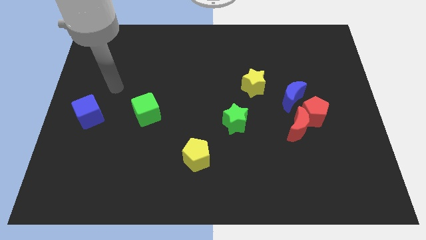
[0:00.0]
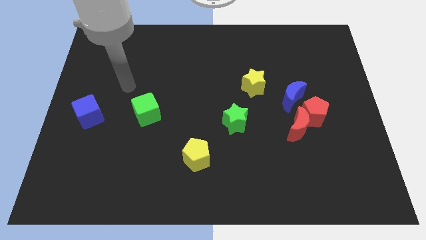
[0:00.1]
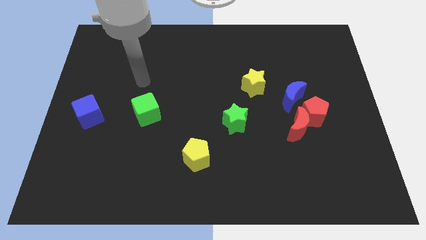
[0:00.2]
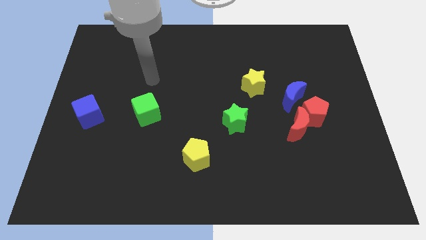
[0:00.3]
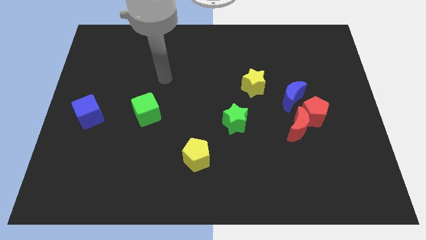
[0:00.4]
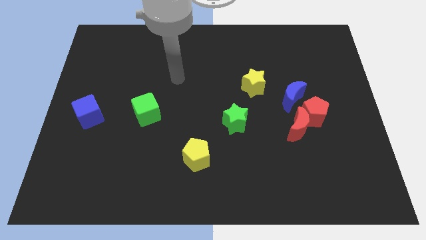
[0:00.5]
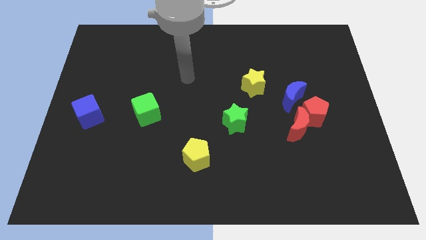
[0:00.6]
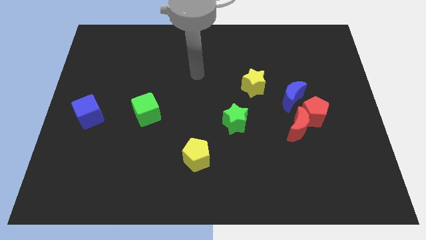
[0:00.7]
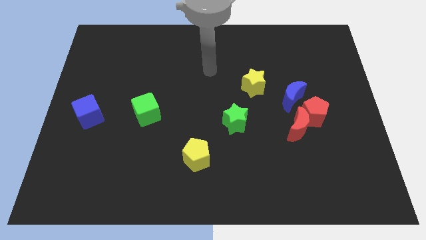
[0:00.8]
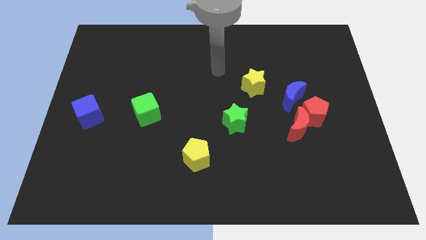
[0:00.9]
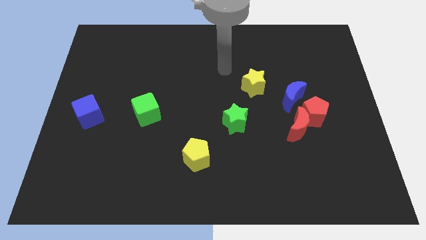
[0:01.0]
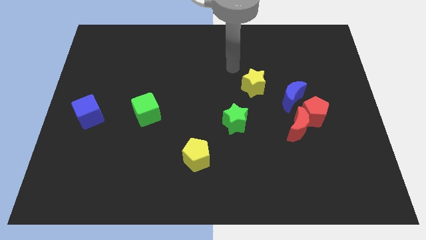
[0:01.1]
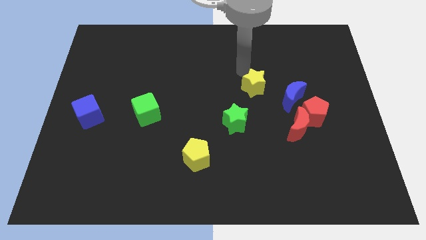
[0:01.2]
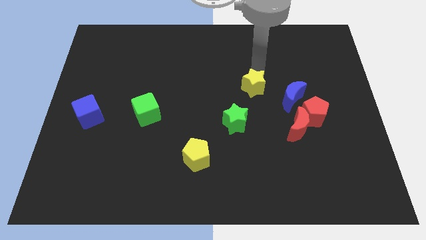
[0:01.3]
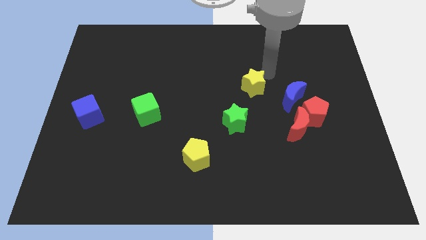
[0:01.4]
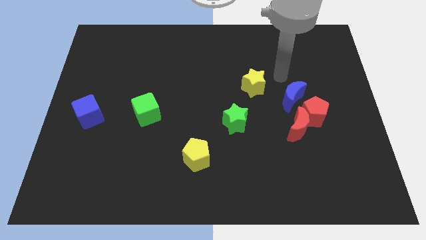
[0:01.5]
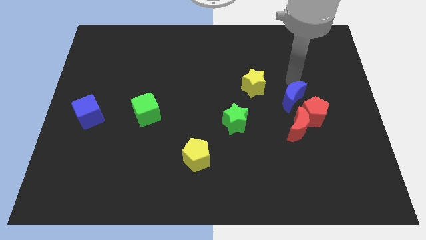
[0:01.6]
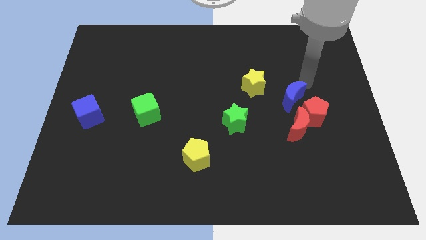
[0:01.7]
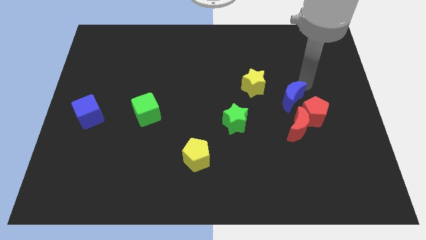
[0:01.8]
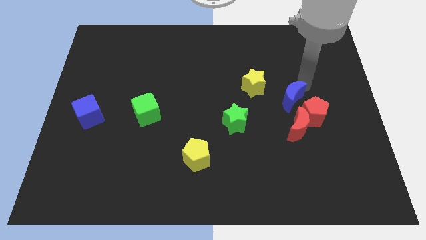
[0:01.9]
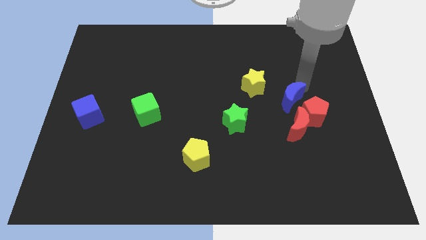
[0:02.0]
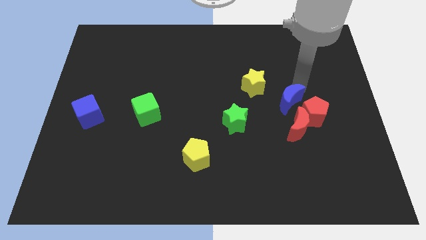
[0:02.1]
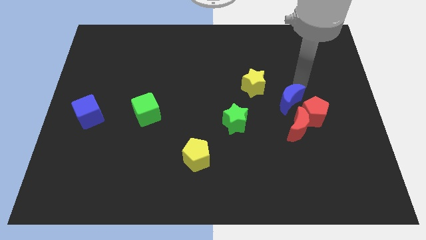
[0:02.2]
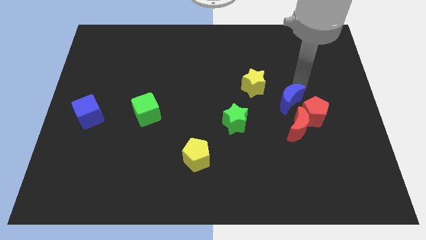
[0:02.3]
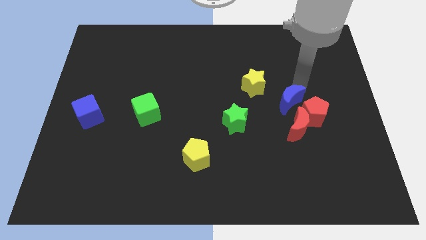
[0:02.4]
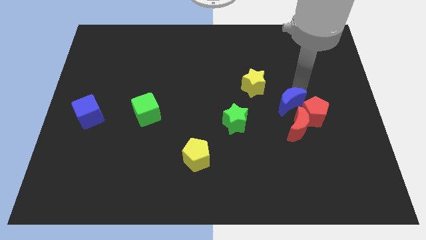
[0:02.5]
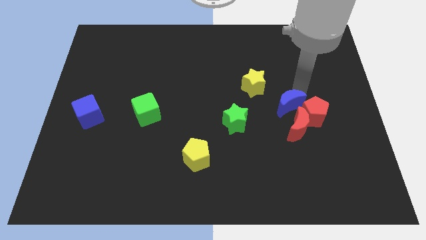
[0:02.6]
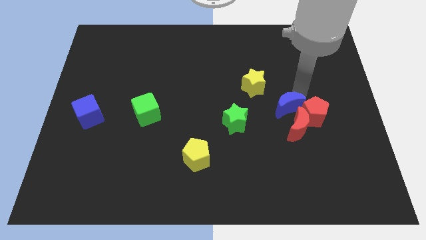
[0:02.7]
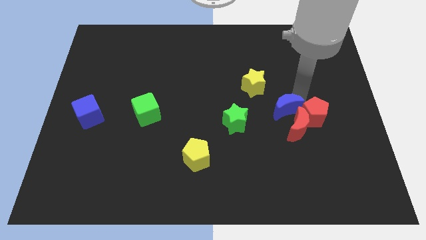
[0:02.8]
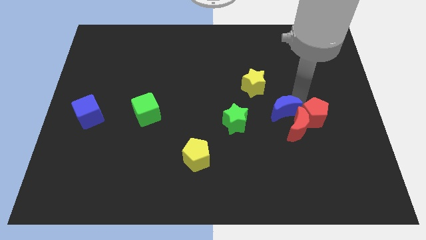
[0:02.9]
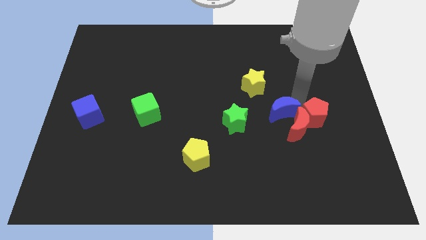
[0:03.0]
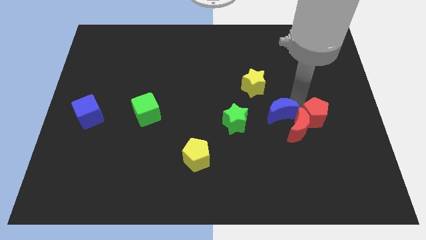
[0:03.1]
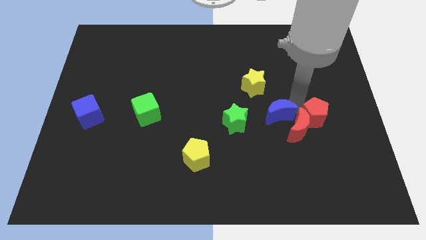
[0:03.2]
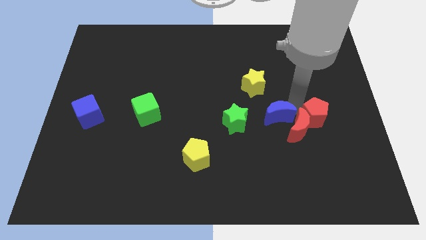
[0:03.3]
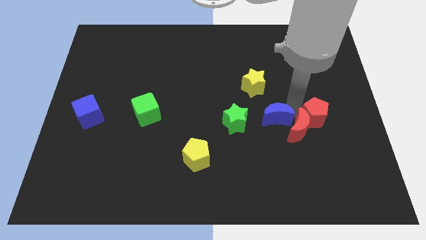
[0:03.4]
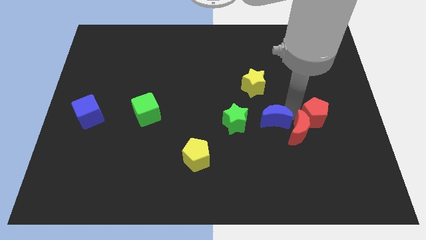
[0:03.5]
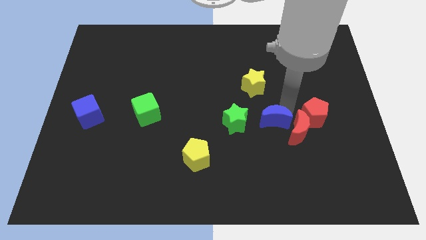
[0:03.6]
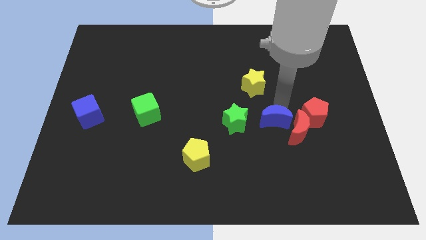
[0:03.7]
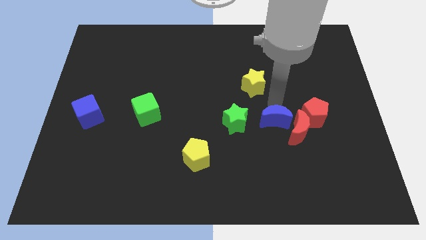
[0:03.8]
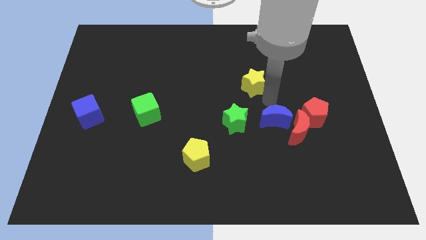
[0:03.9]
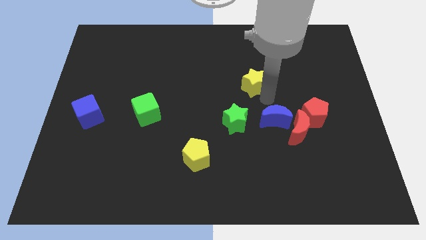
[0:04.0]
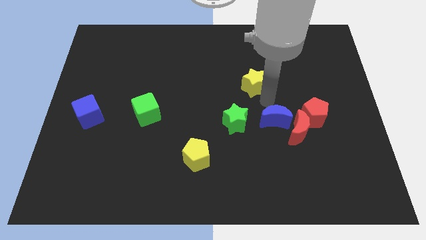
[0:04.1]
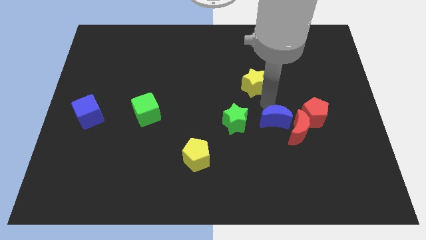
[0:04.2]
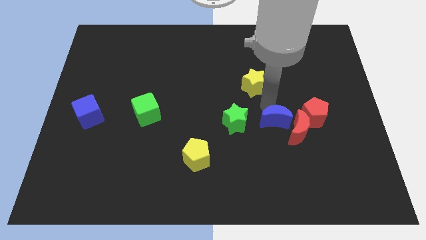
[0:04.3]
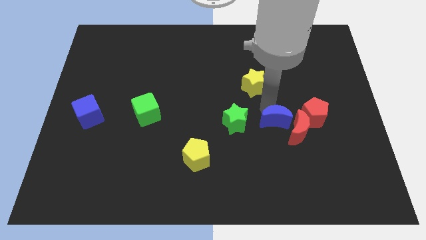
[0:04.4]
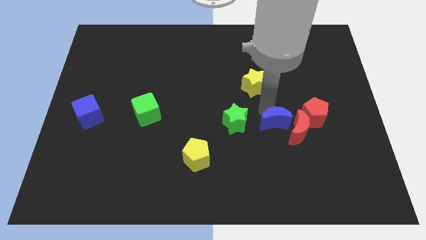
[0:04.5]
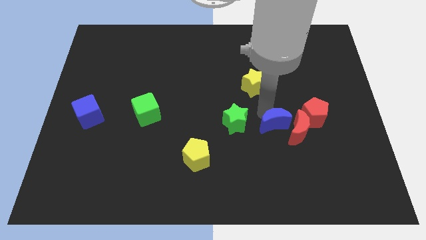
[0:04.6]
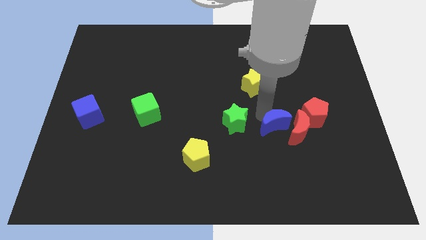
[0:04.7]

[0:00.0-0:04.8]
slightly slide the blue moon downwards

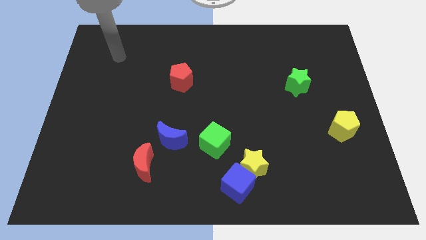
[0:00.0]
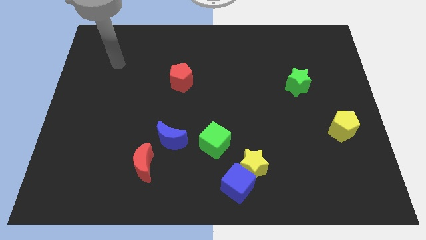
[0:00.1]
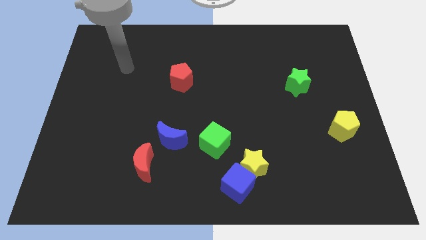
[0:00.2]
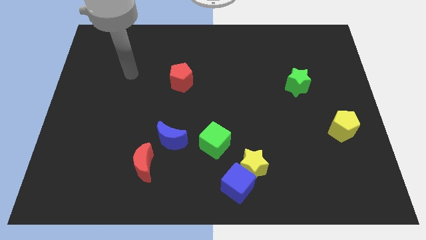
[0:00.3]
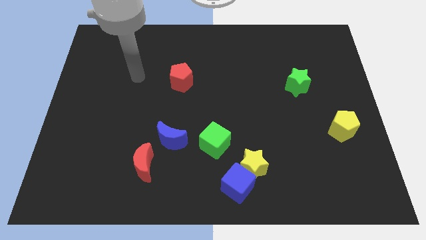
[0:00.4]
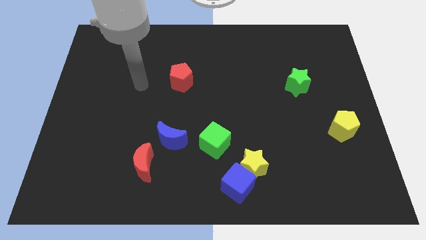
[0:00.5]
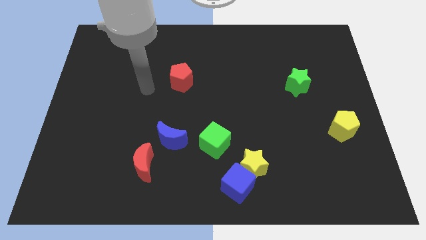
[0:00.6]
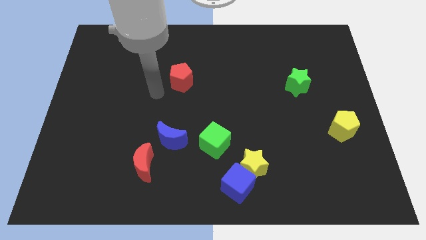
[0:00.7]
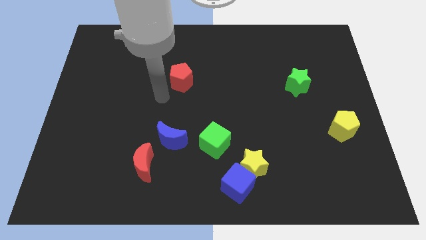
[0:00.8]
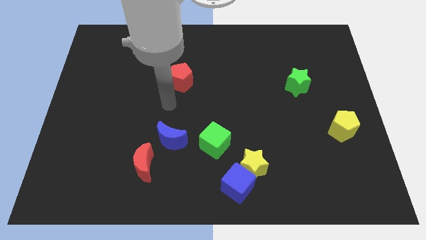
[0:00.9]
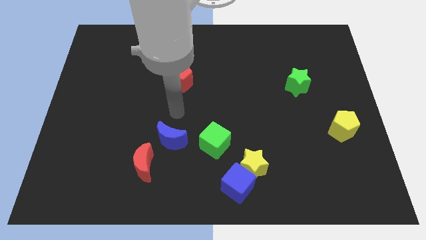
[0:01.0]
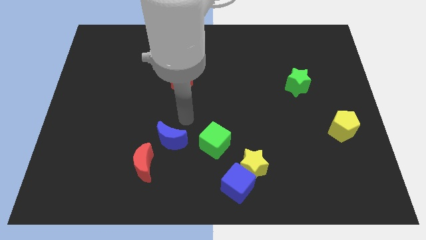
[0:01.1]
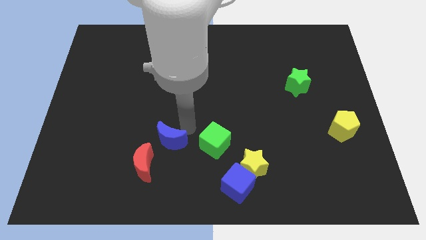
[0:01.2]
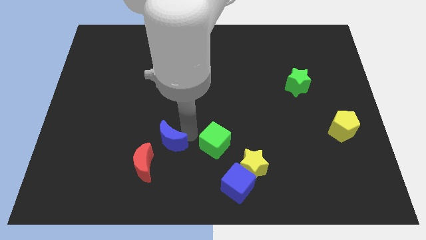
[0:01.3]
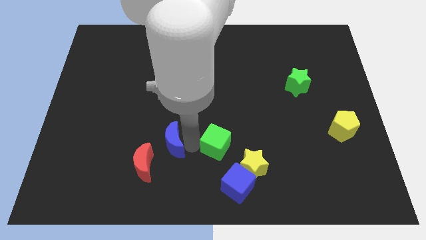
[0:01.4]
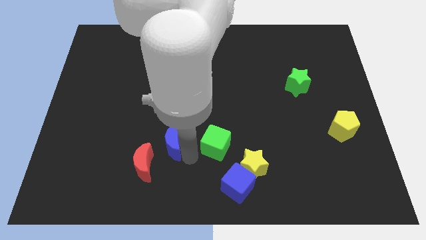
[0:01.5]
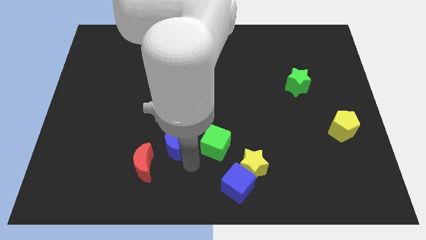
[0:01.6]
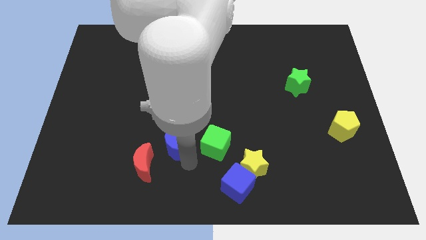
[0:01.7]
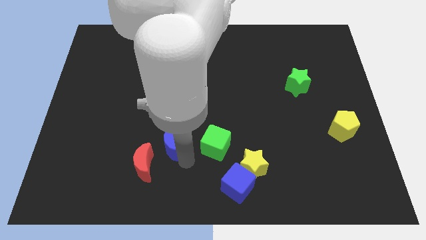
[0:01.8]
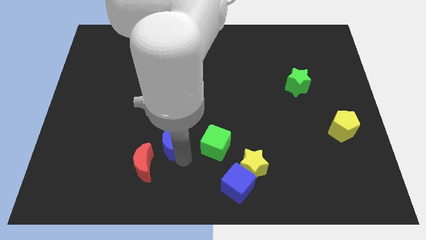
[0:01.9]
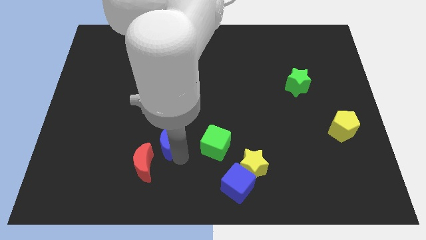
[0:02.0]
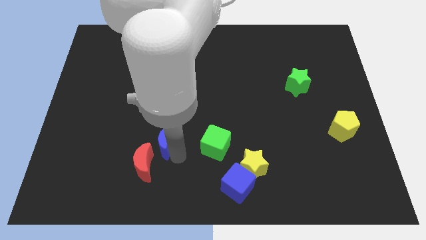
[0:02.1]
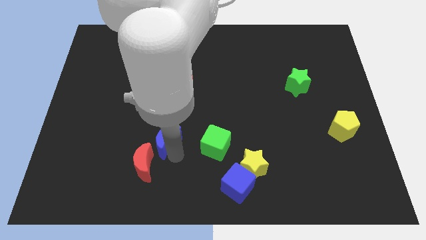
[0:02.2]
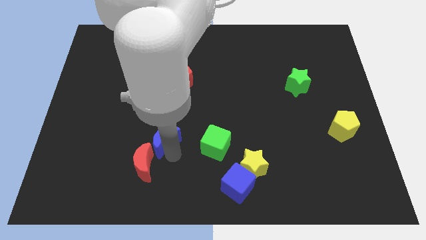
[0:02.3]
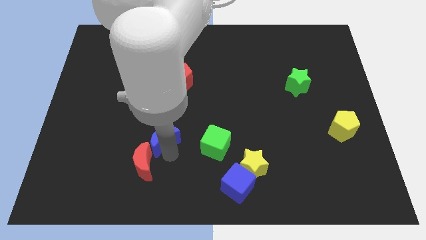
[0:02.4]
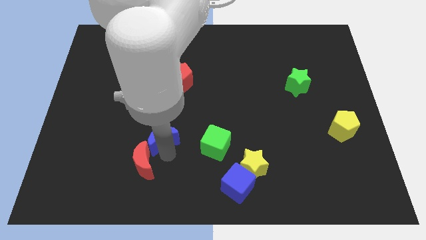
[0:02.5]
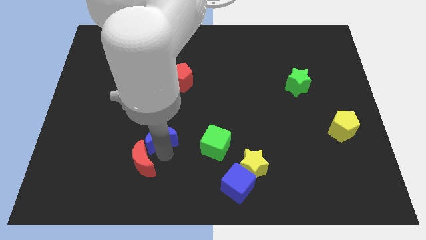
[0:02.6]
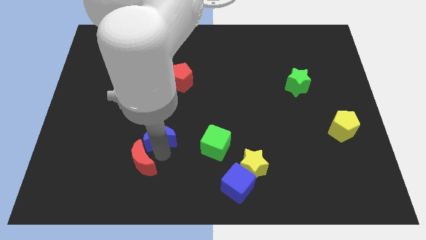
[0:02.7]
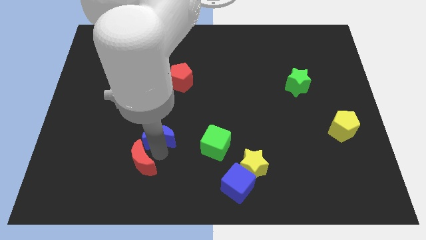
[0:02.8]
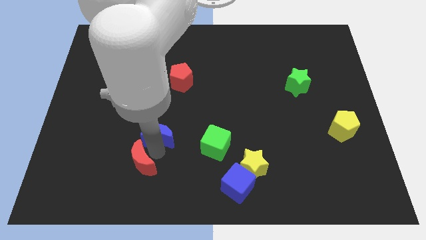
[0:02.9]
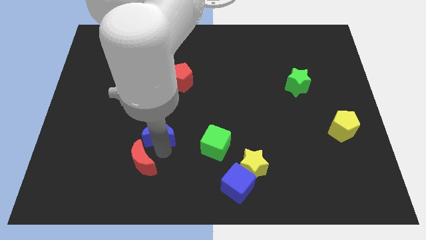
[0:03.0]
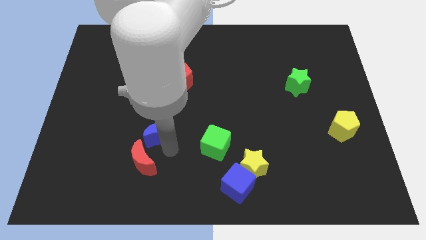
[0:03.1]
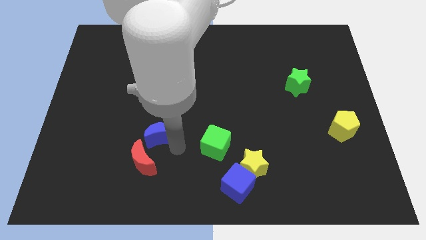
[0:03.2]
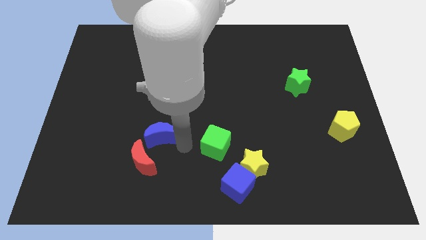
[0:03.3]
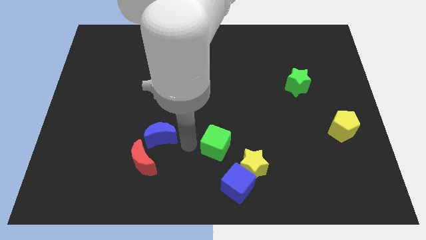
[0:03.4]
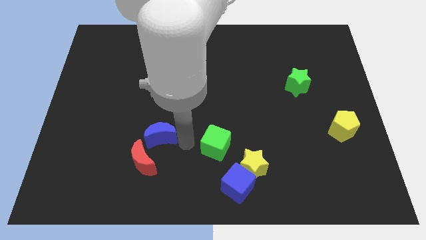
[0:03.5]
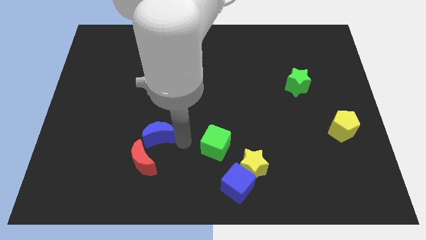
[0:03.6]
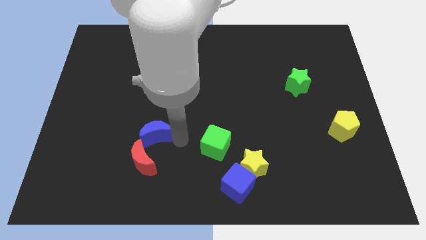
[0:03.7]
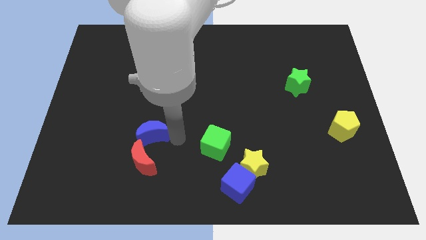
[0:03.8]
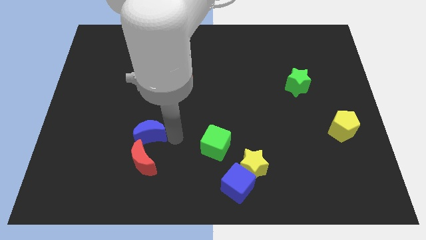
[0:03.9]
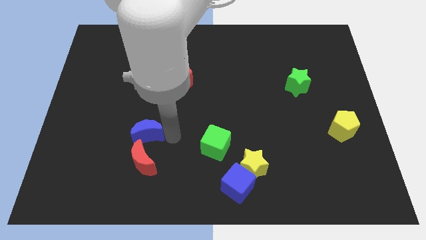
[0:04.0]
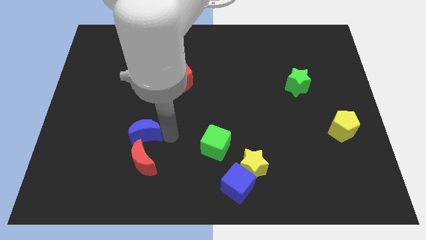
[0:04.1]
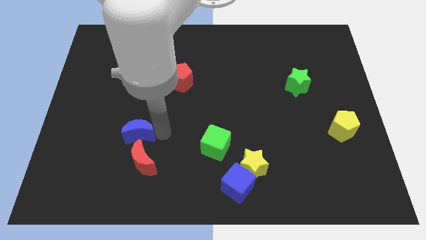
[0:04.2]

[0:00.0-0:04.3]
slide the blue moon to the left slightly
